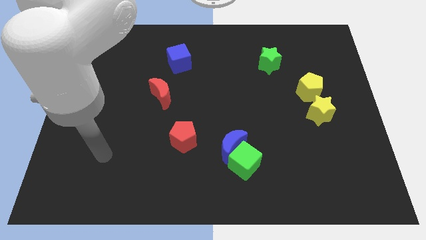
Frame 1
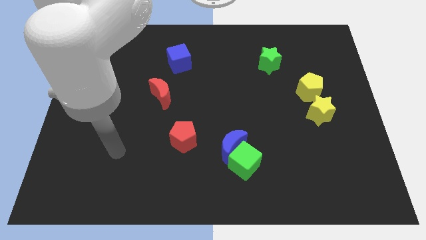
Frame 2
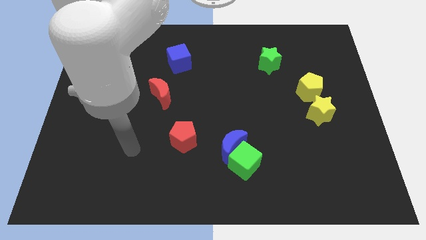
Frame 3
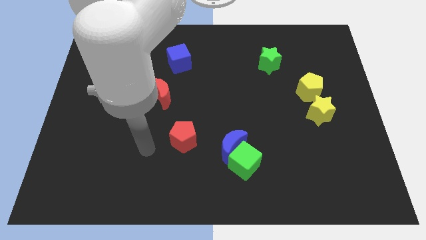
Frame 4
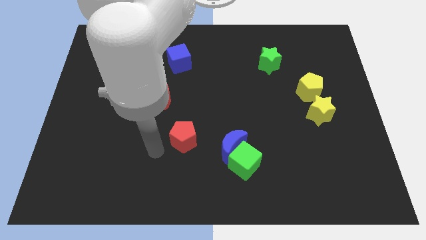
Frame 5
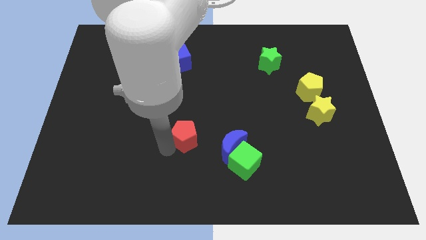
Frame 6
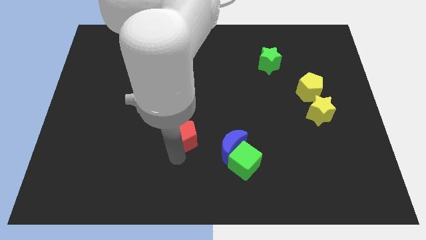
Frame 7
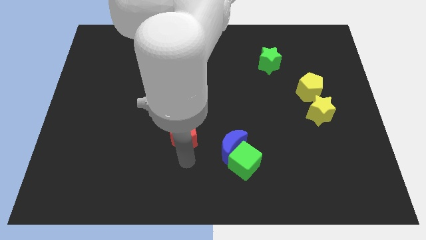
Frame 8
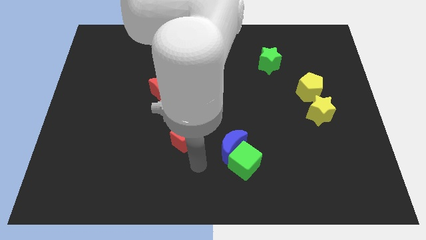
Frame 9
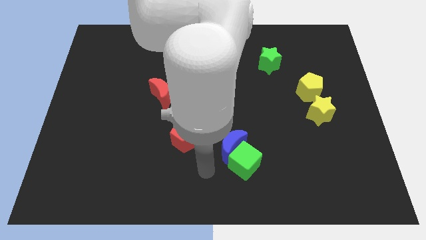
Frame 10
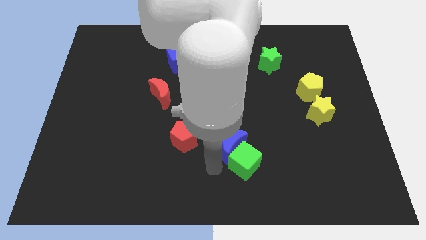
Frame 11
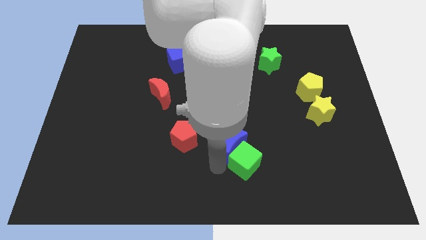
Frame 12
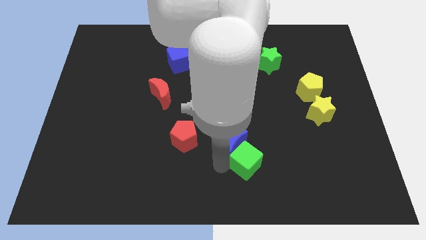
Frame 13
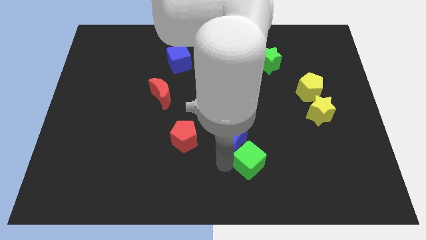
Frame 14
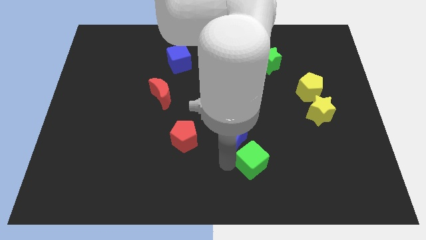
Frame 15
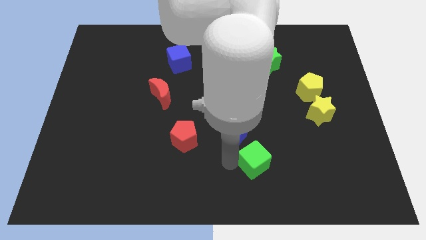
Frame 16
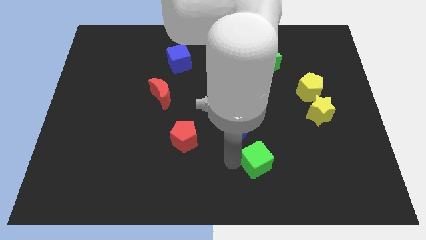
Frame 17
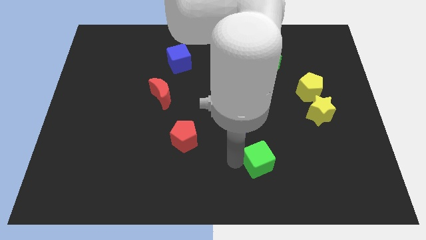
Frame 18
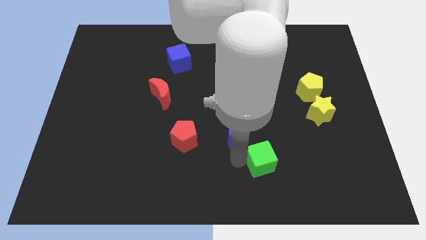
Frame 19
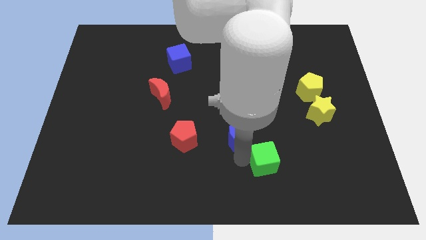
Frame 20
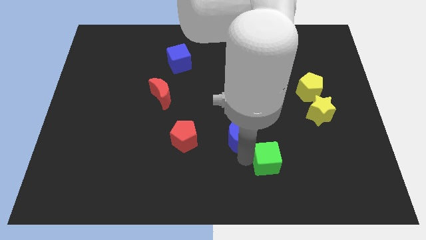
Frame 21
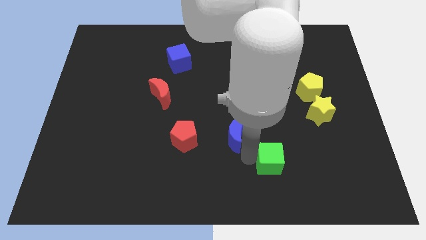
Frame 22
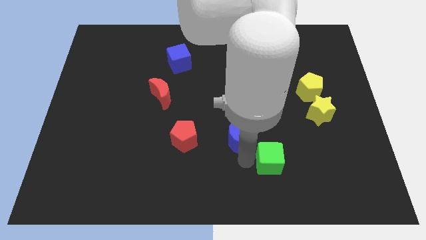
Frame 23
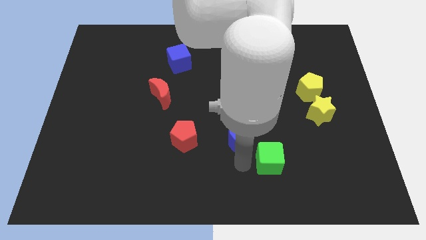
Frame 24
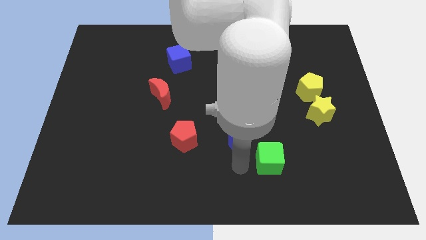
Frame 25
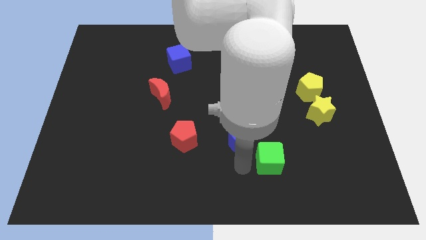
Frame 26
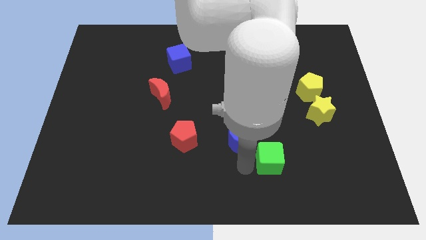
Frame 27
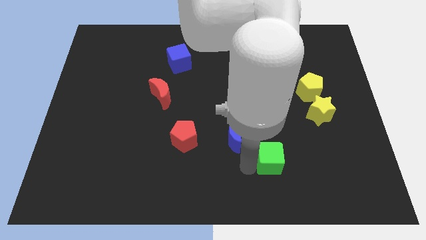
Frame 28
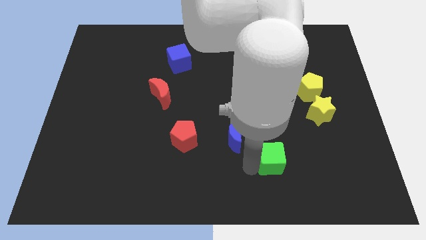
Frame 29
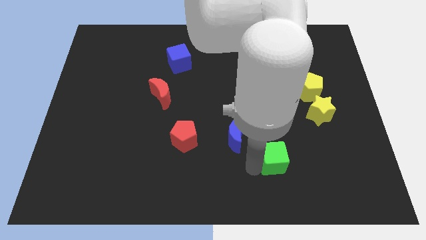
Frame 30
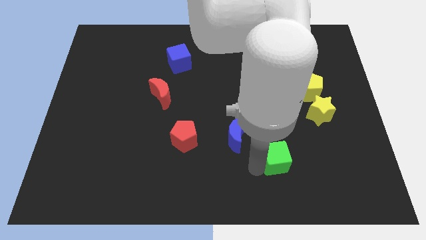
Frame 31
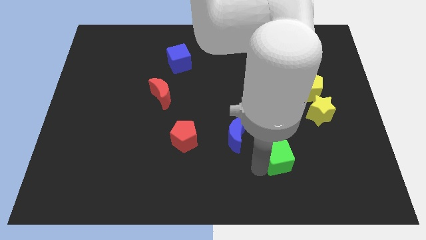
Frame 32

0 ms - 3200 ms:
push the green cube somewhat to the right

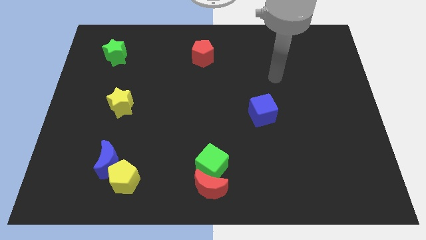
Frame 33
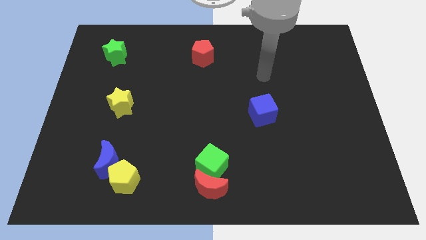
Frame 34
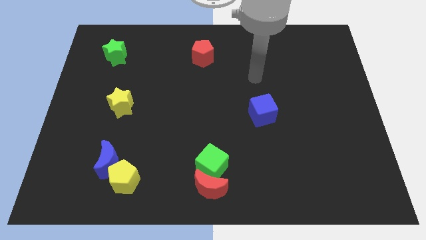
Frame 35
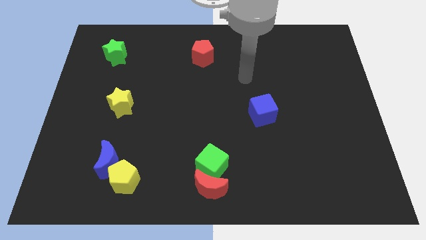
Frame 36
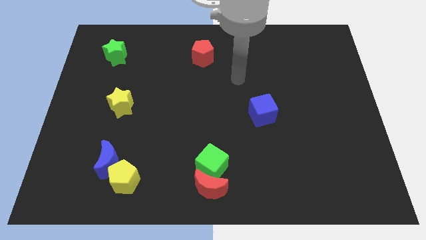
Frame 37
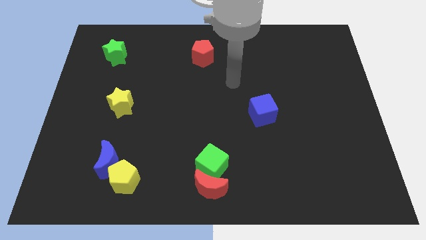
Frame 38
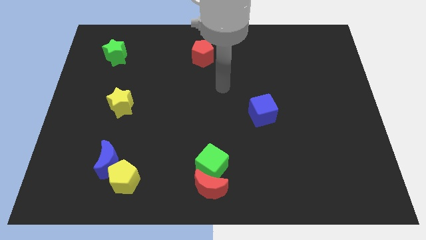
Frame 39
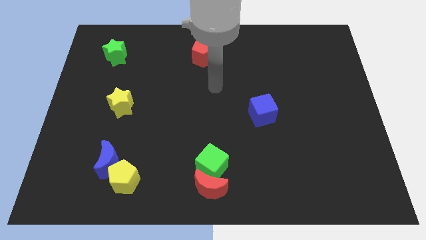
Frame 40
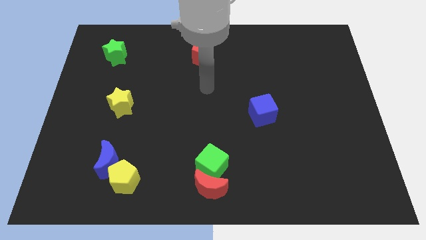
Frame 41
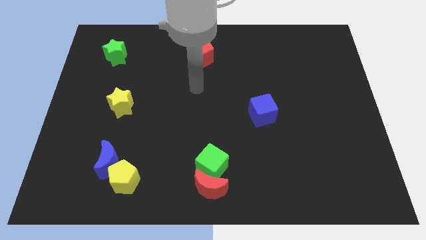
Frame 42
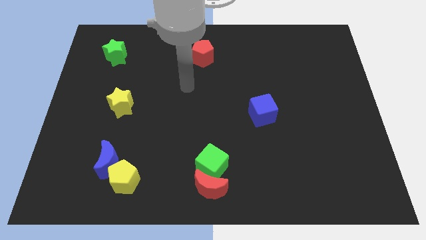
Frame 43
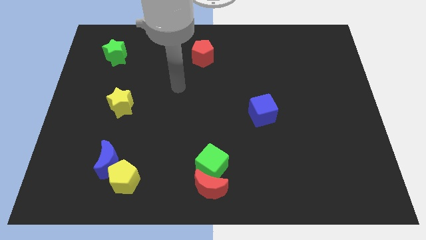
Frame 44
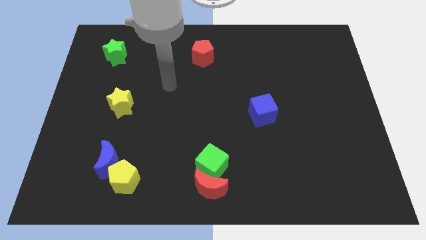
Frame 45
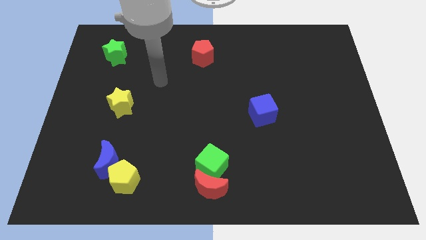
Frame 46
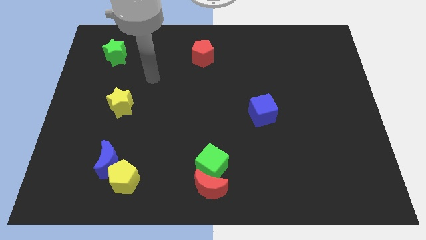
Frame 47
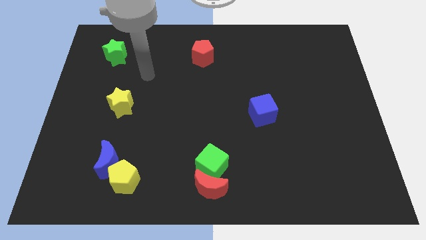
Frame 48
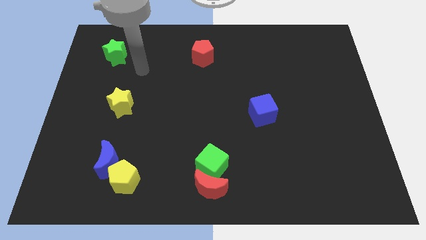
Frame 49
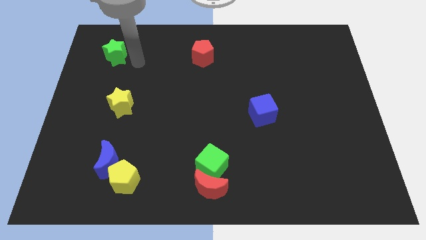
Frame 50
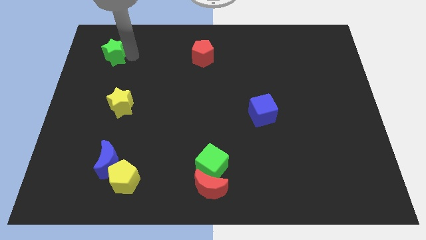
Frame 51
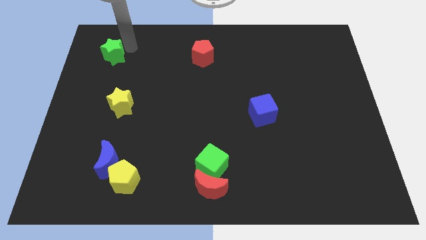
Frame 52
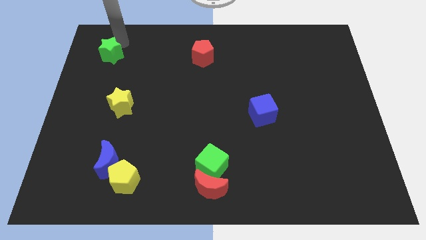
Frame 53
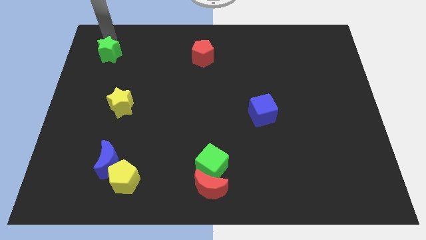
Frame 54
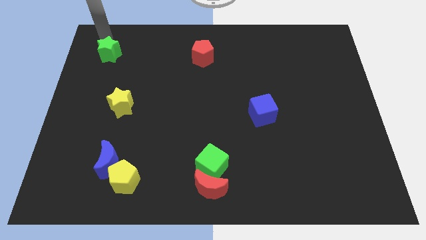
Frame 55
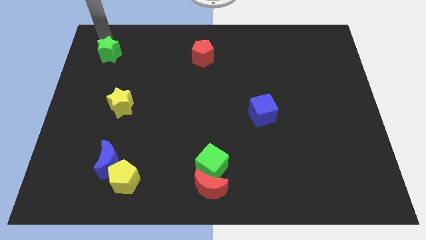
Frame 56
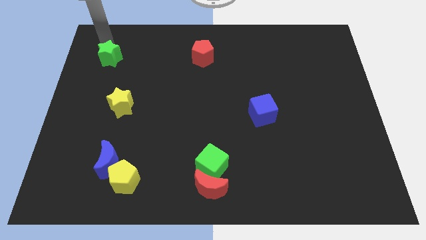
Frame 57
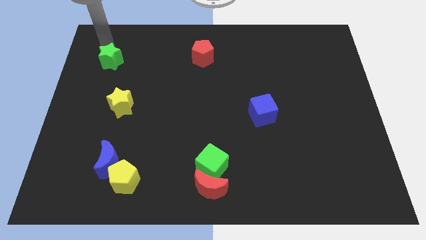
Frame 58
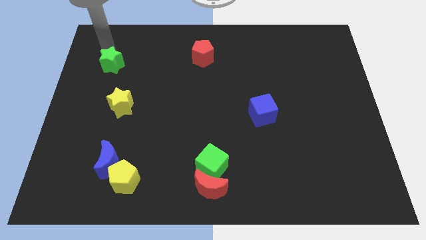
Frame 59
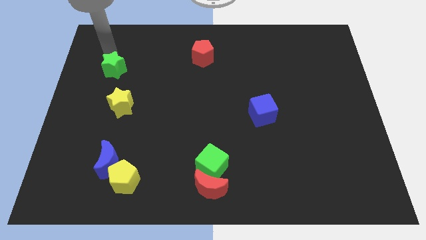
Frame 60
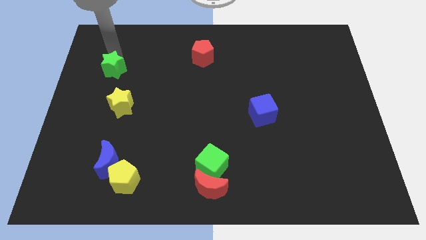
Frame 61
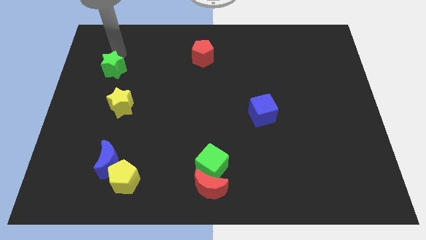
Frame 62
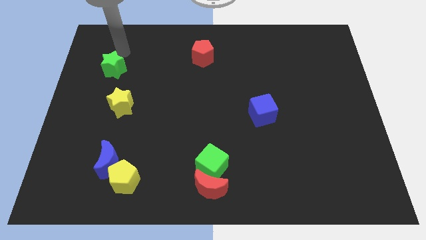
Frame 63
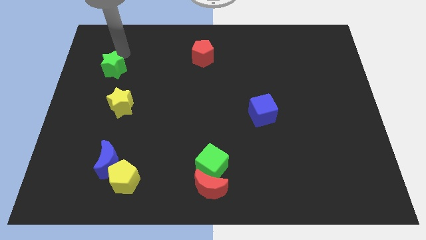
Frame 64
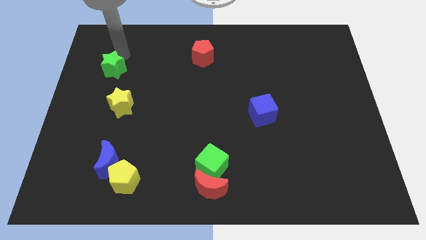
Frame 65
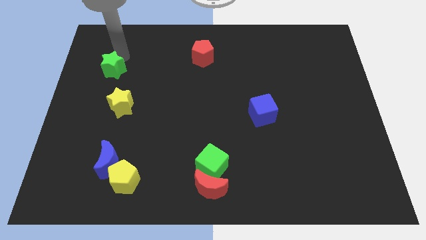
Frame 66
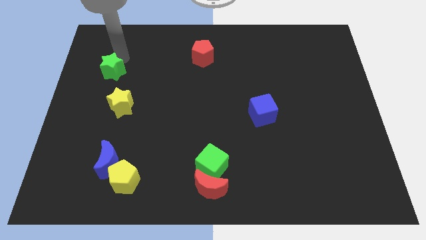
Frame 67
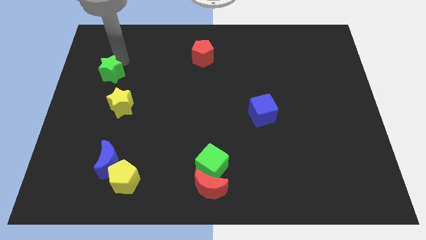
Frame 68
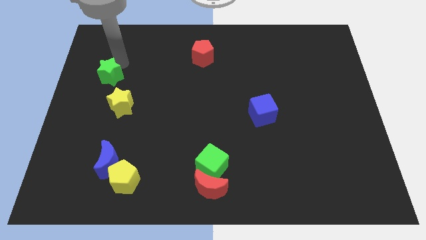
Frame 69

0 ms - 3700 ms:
slightly push the green star down

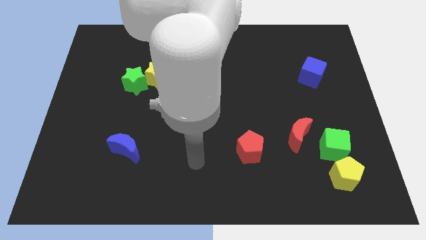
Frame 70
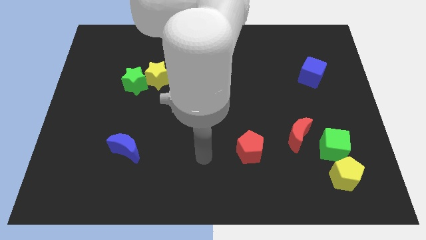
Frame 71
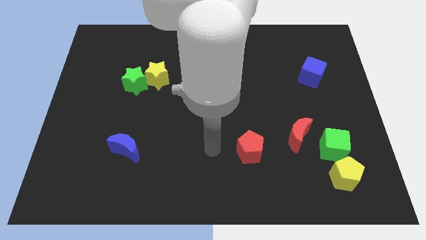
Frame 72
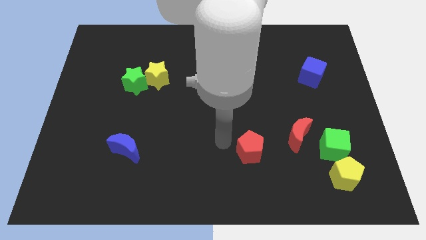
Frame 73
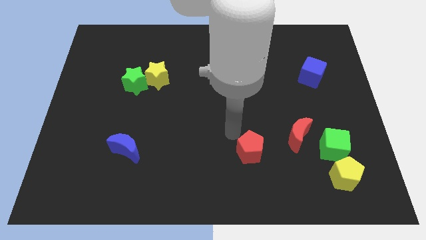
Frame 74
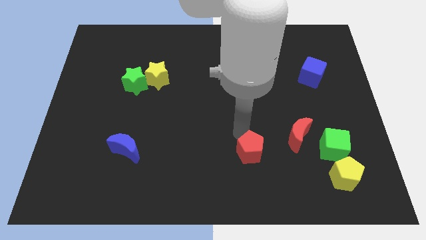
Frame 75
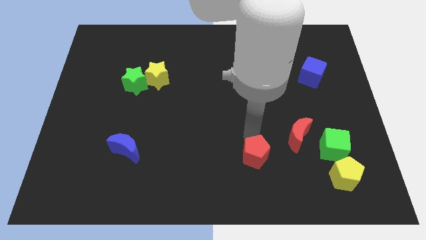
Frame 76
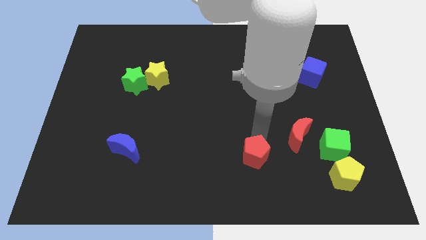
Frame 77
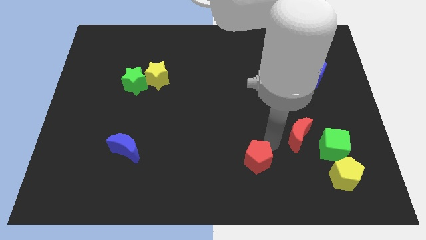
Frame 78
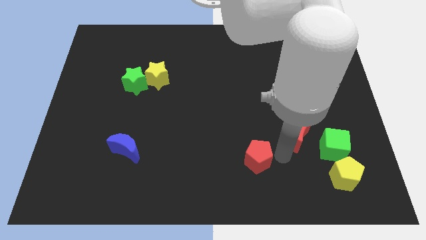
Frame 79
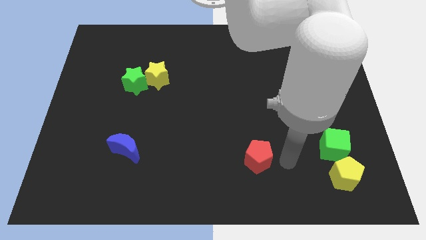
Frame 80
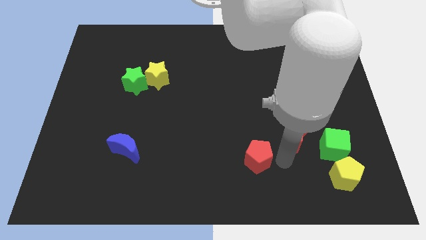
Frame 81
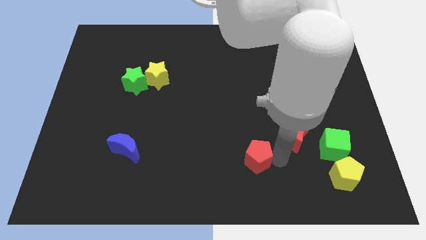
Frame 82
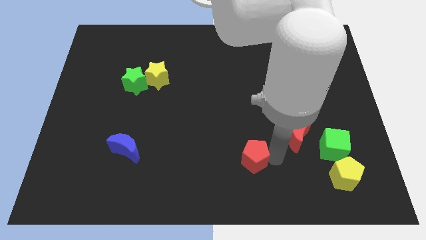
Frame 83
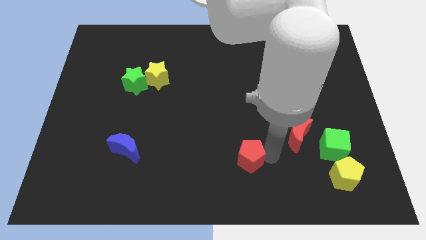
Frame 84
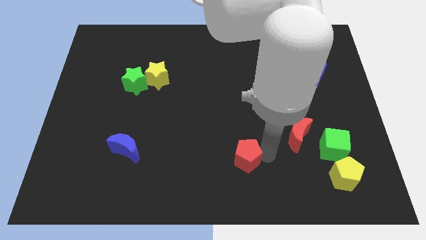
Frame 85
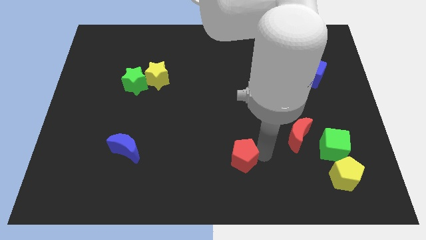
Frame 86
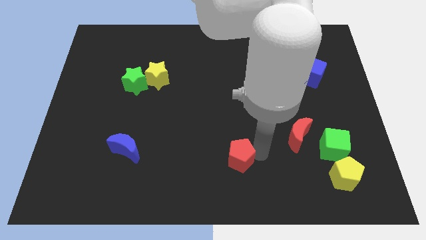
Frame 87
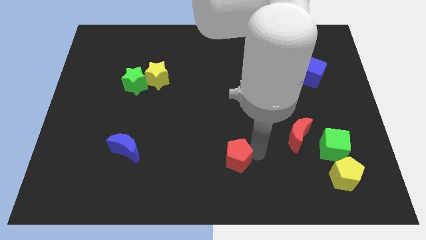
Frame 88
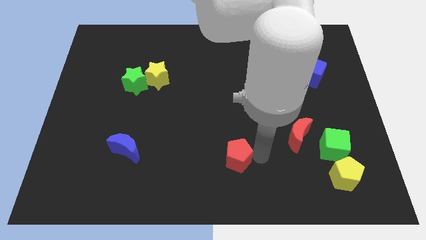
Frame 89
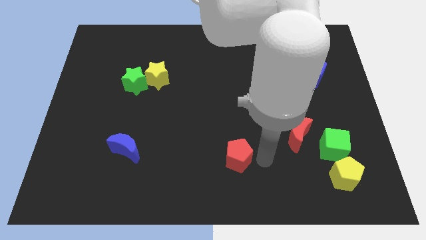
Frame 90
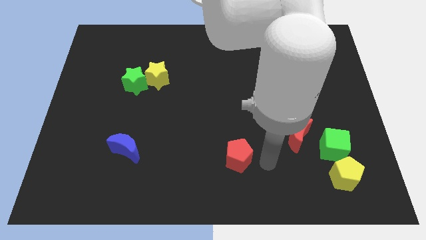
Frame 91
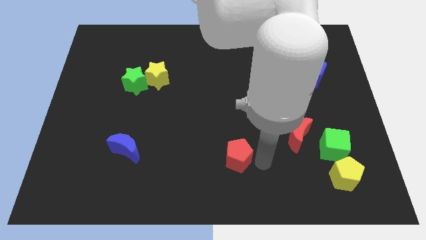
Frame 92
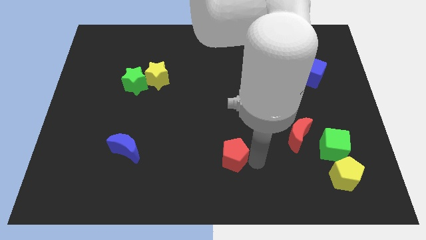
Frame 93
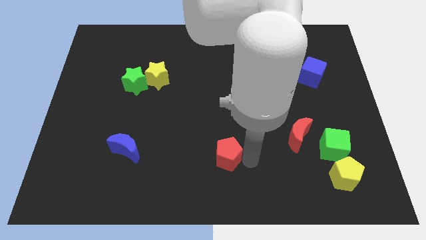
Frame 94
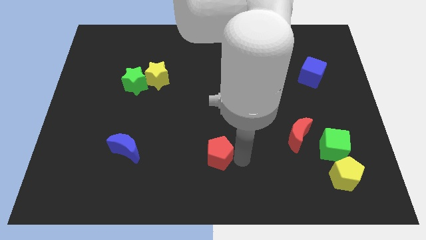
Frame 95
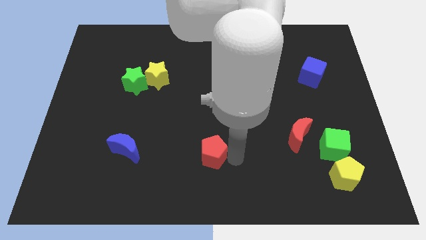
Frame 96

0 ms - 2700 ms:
slightly push the red pentagon left
